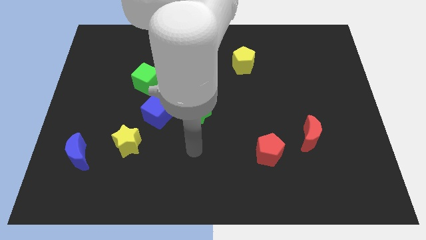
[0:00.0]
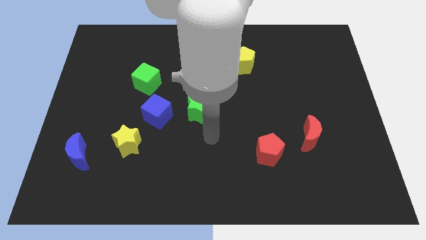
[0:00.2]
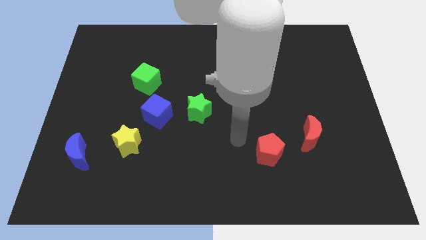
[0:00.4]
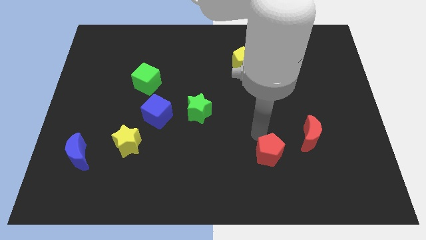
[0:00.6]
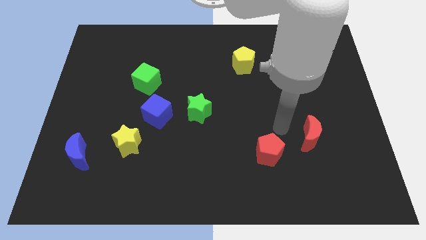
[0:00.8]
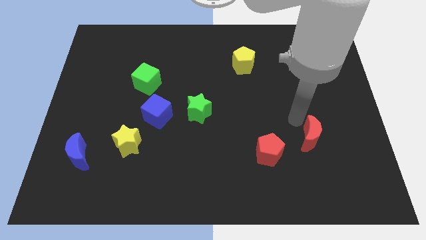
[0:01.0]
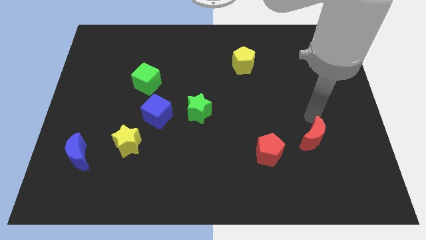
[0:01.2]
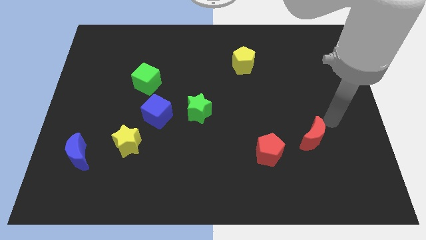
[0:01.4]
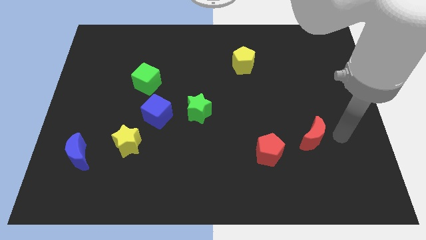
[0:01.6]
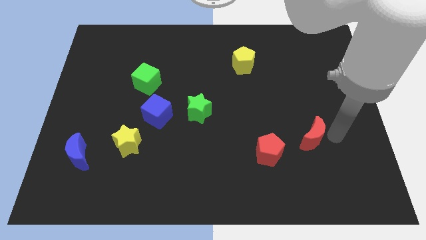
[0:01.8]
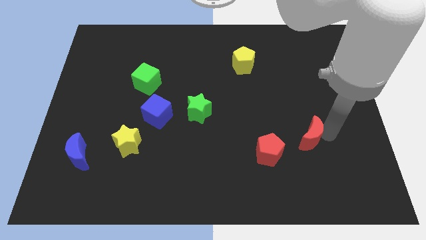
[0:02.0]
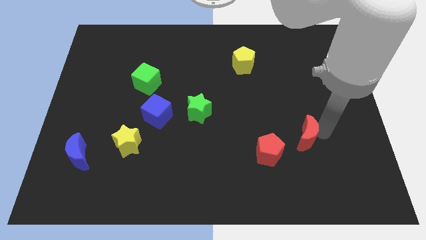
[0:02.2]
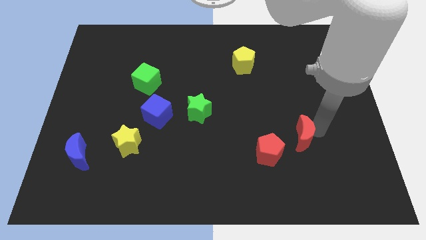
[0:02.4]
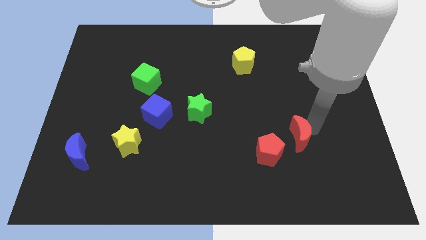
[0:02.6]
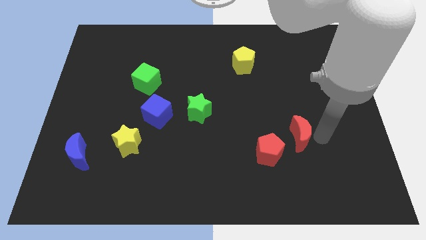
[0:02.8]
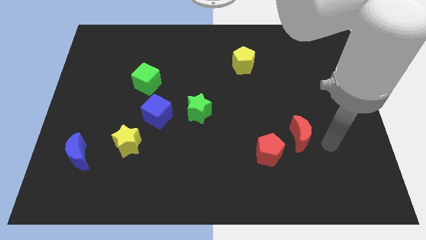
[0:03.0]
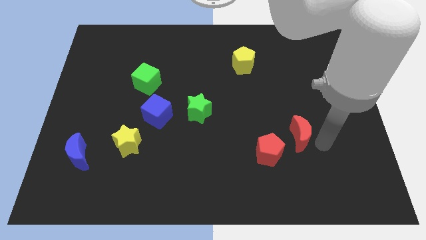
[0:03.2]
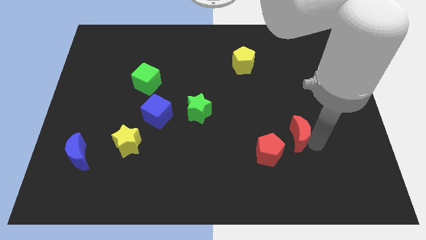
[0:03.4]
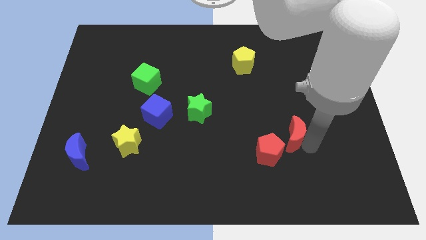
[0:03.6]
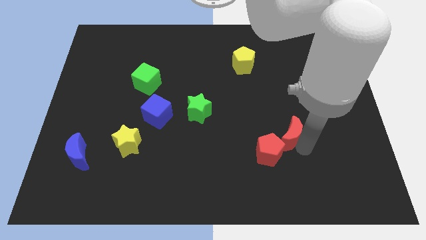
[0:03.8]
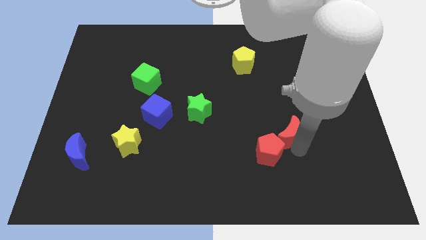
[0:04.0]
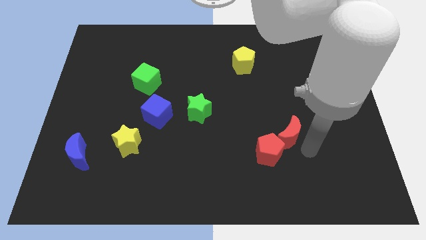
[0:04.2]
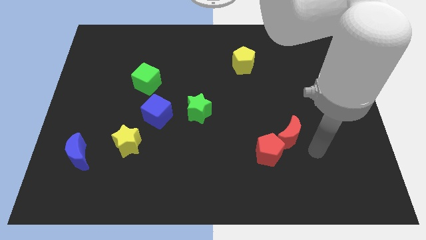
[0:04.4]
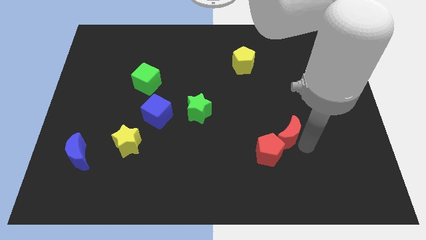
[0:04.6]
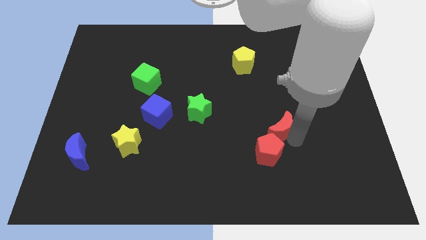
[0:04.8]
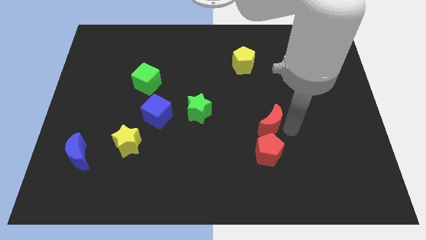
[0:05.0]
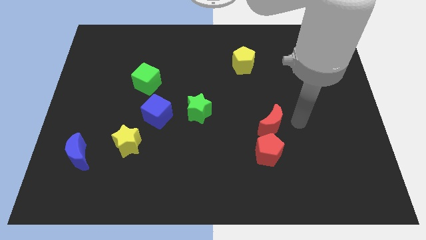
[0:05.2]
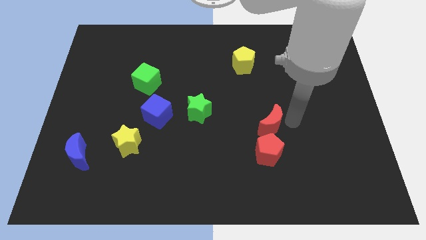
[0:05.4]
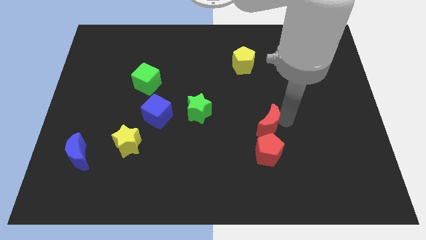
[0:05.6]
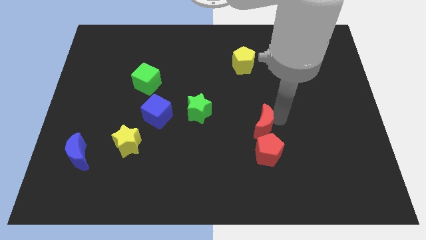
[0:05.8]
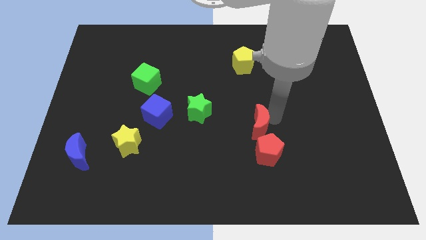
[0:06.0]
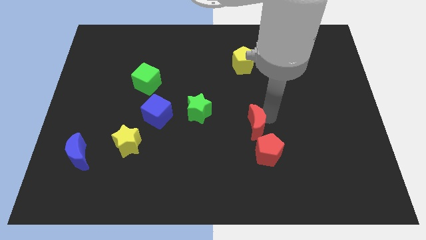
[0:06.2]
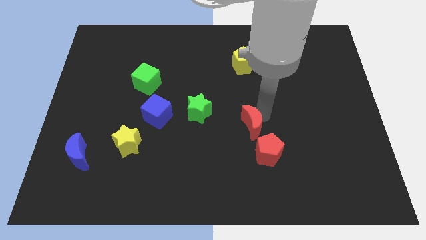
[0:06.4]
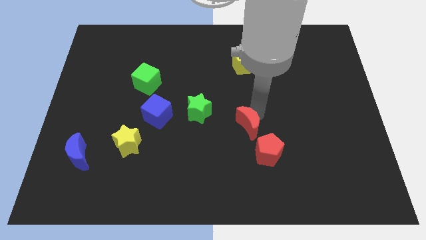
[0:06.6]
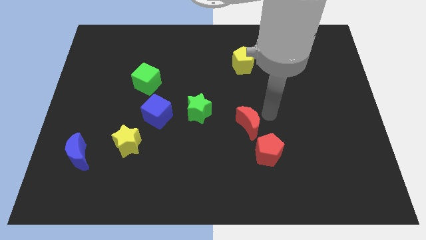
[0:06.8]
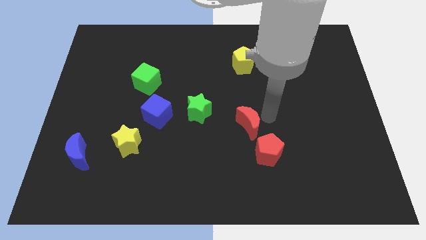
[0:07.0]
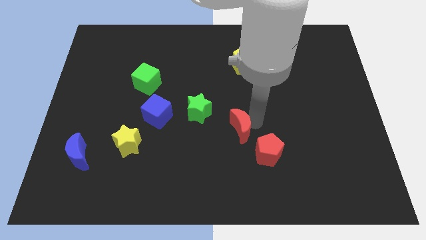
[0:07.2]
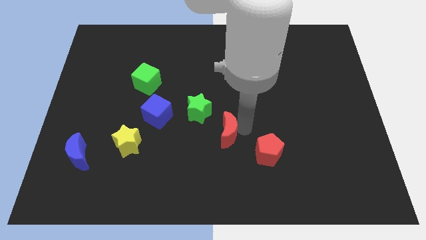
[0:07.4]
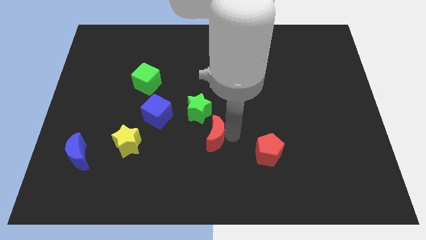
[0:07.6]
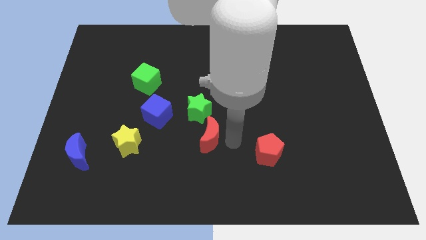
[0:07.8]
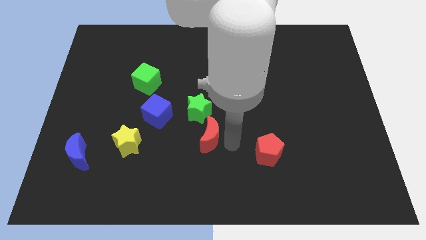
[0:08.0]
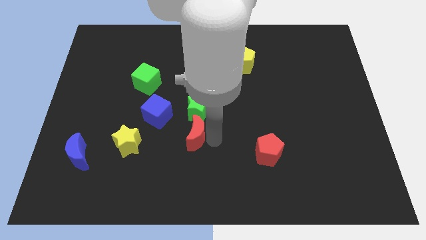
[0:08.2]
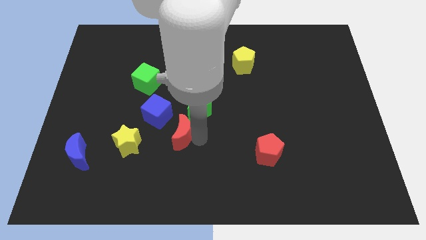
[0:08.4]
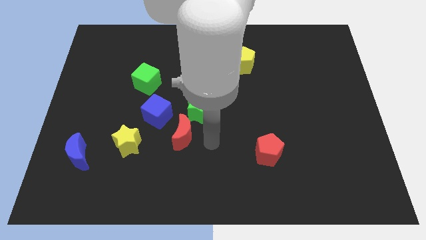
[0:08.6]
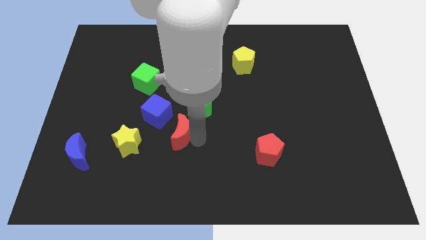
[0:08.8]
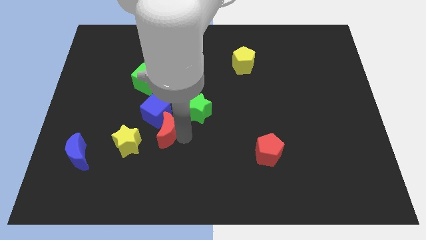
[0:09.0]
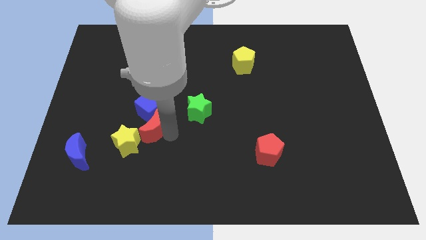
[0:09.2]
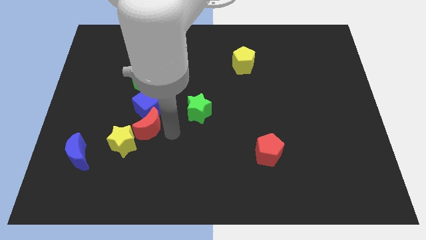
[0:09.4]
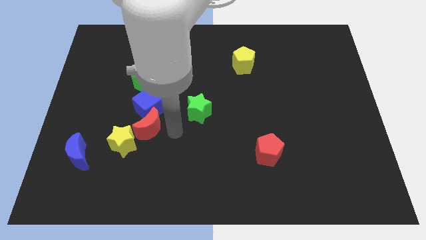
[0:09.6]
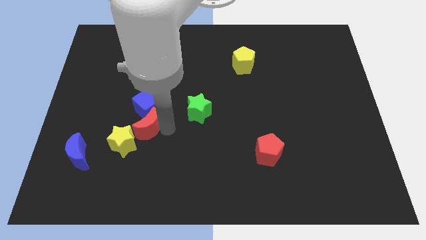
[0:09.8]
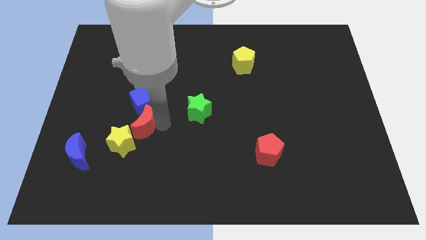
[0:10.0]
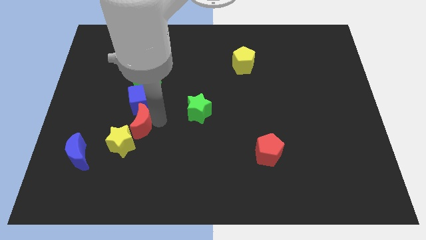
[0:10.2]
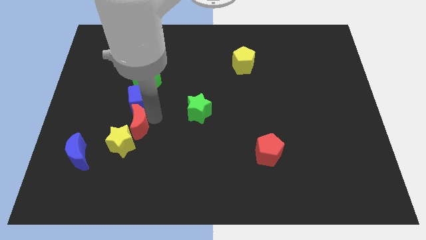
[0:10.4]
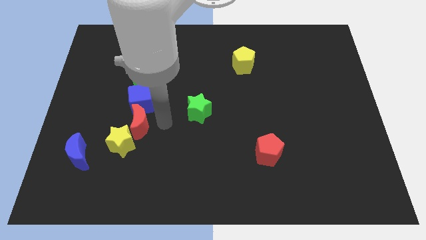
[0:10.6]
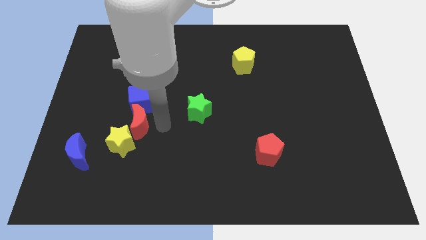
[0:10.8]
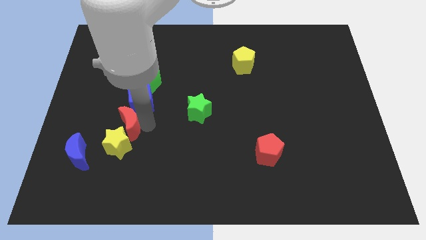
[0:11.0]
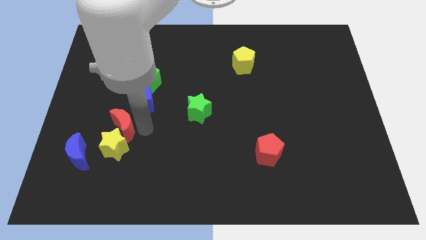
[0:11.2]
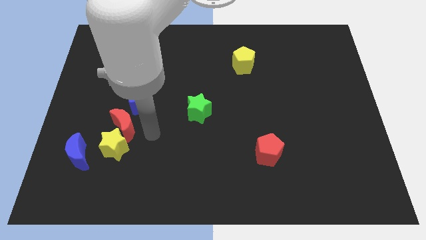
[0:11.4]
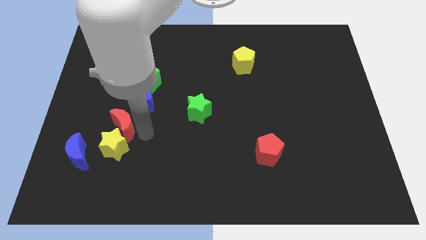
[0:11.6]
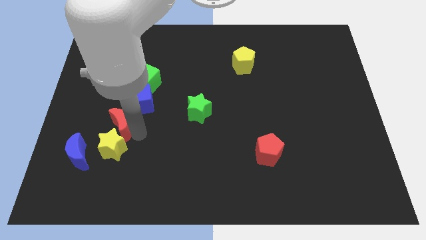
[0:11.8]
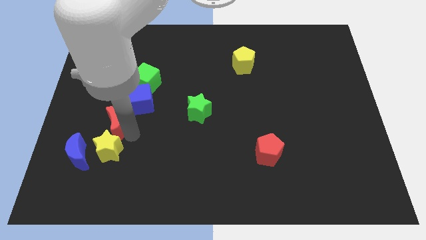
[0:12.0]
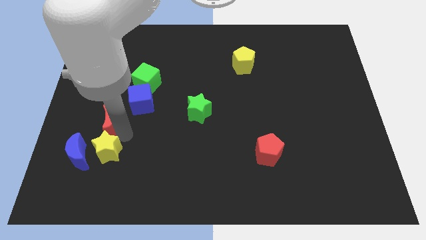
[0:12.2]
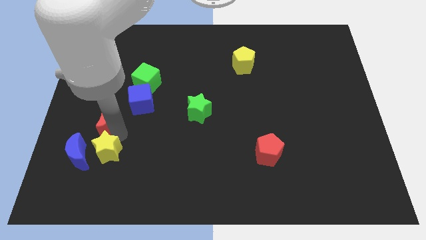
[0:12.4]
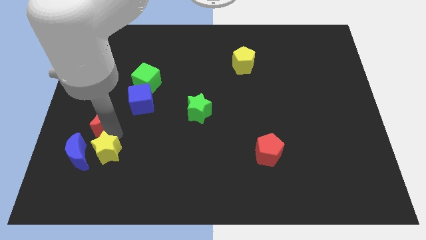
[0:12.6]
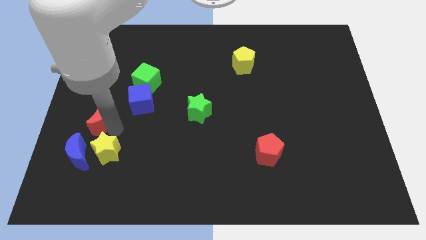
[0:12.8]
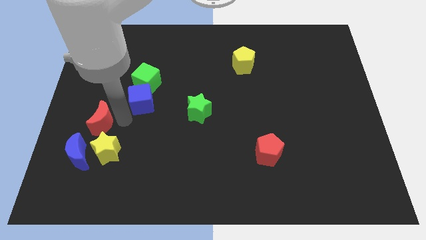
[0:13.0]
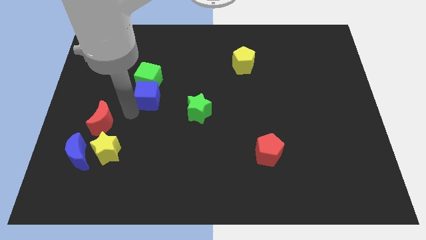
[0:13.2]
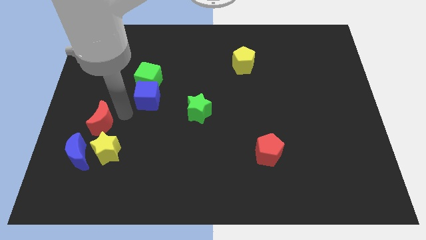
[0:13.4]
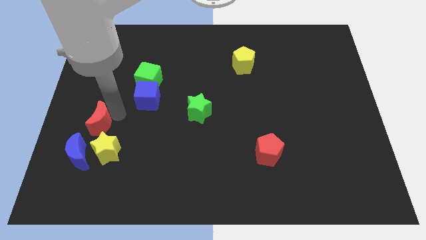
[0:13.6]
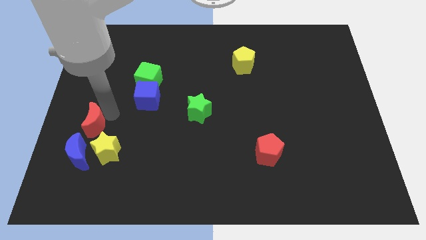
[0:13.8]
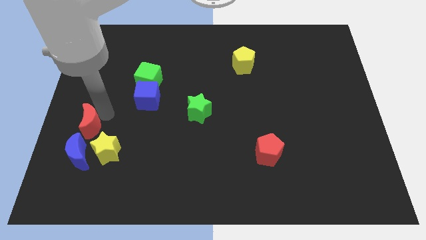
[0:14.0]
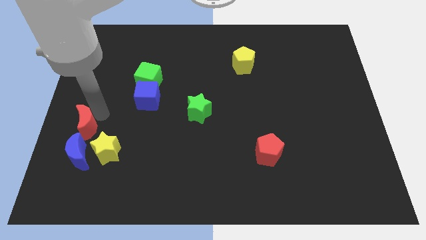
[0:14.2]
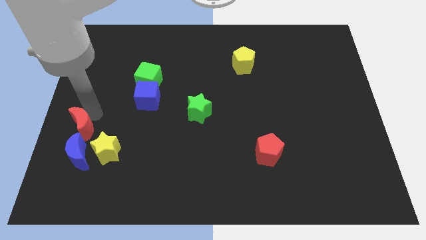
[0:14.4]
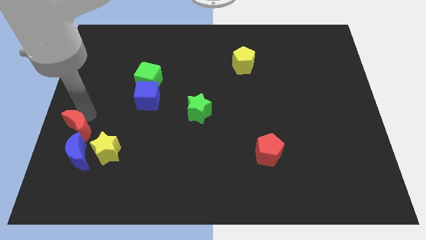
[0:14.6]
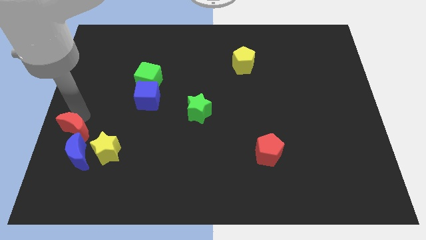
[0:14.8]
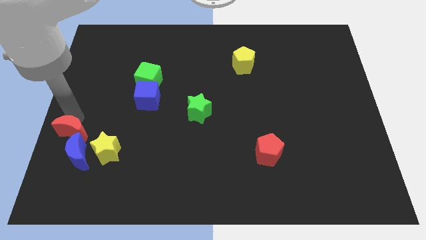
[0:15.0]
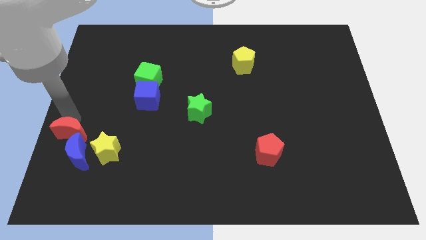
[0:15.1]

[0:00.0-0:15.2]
push the red moon just left of the yellow star

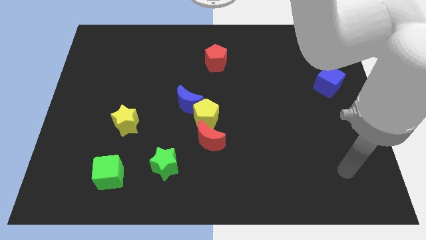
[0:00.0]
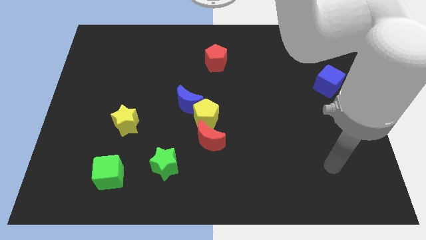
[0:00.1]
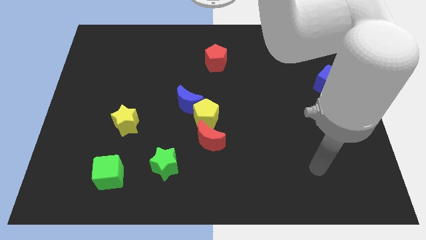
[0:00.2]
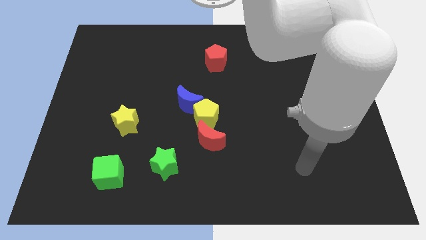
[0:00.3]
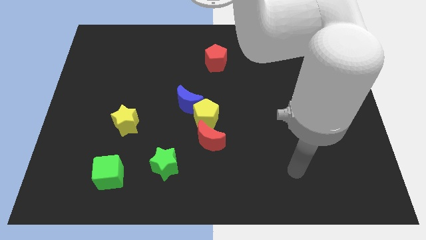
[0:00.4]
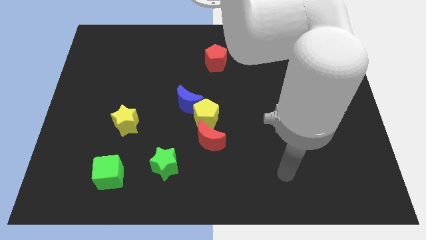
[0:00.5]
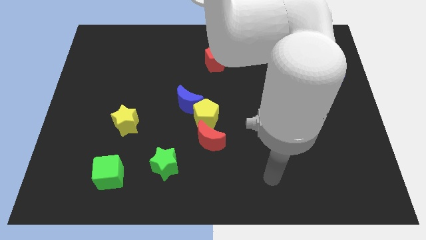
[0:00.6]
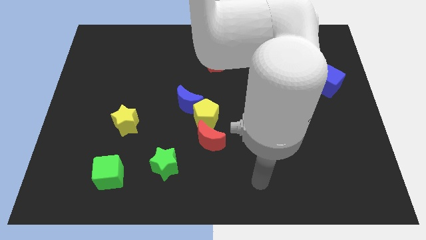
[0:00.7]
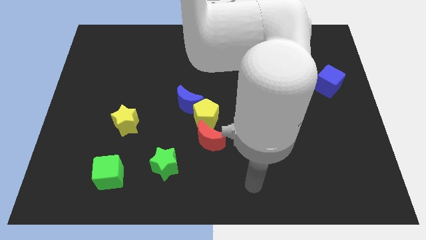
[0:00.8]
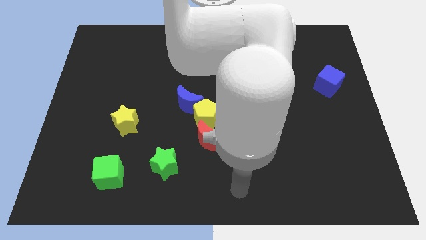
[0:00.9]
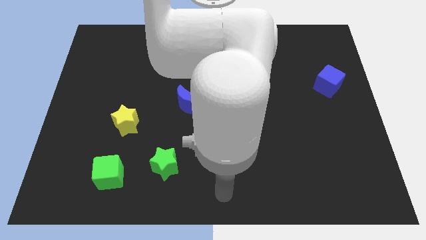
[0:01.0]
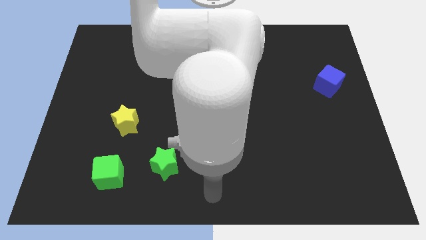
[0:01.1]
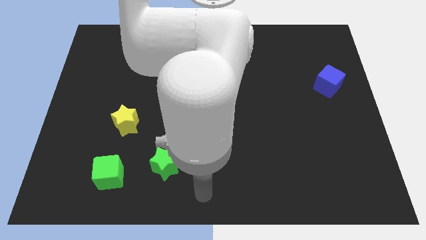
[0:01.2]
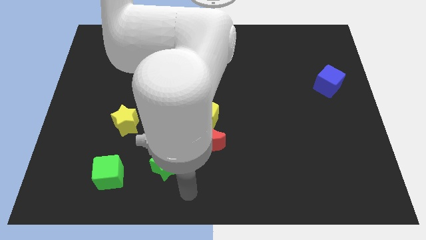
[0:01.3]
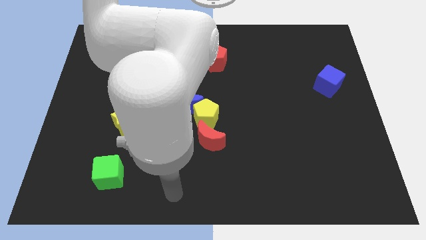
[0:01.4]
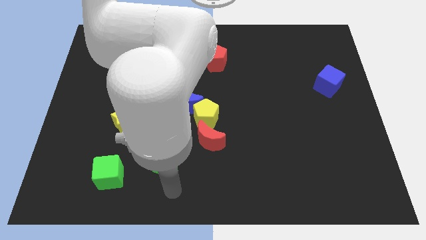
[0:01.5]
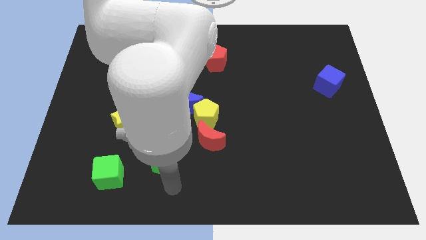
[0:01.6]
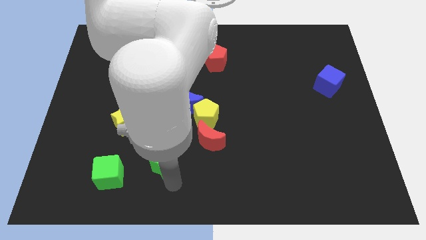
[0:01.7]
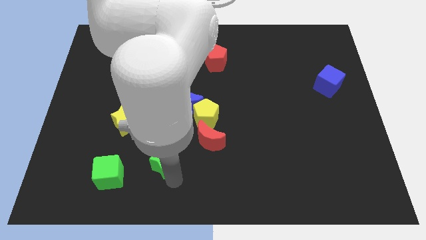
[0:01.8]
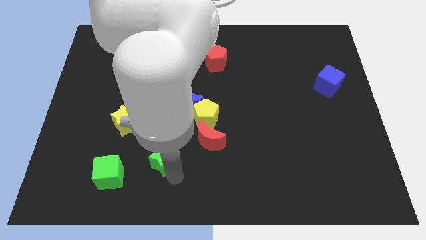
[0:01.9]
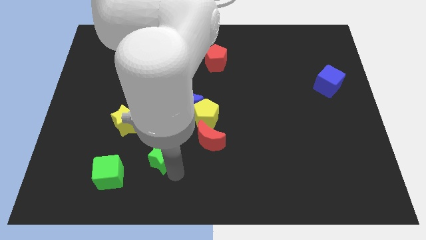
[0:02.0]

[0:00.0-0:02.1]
push the green star left of the red moon
